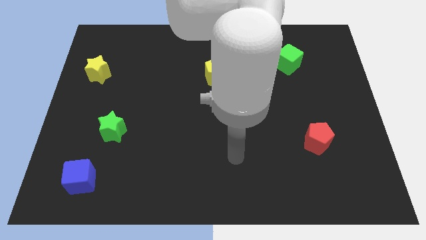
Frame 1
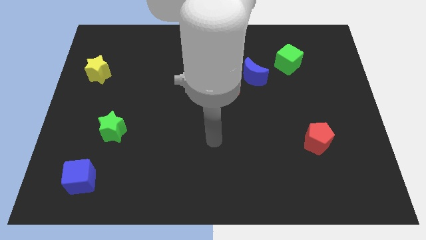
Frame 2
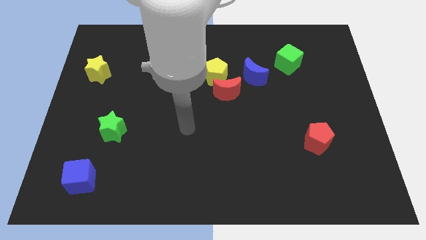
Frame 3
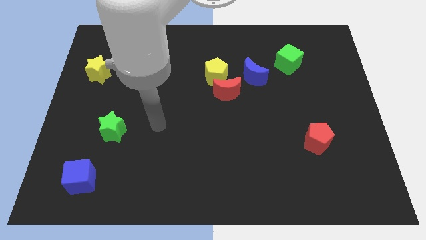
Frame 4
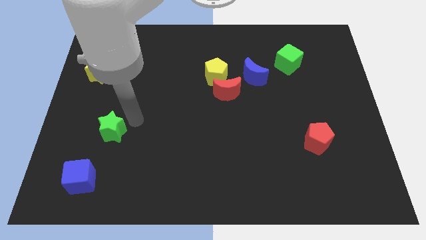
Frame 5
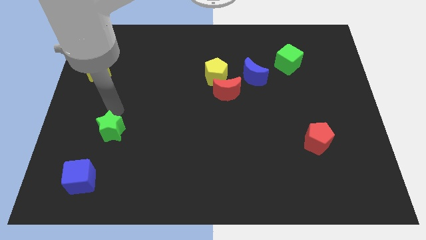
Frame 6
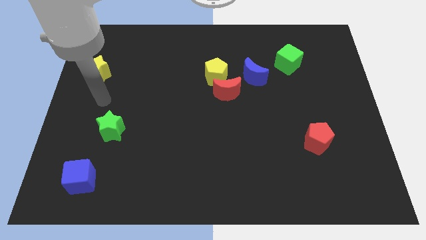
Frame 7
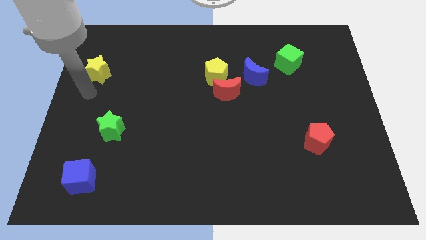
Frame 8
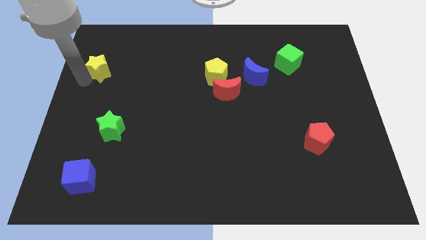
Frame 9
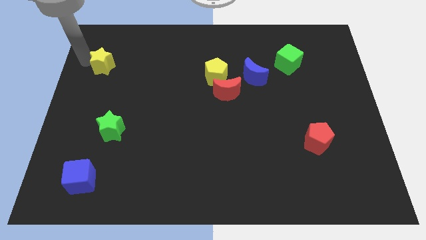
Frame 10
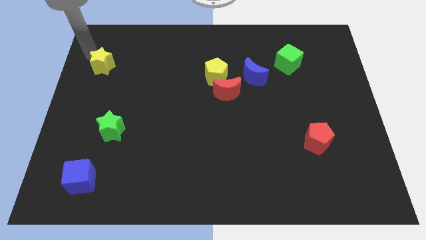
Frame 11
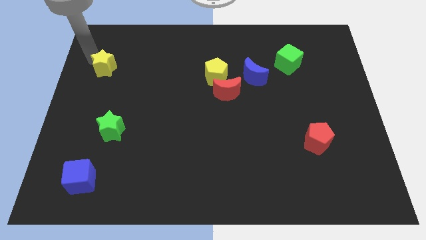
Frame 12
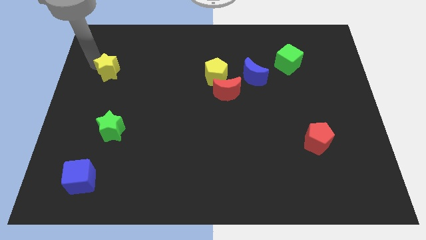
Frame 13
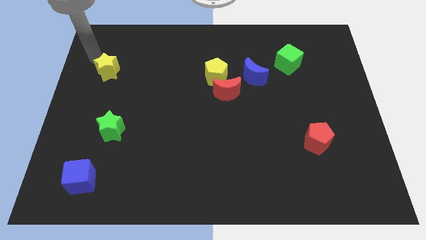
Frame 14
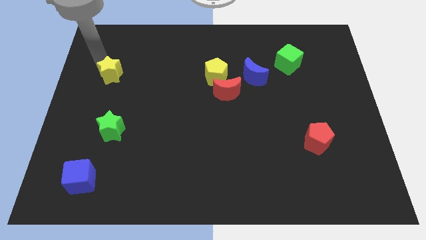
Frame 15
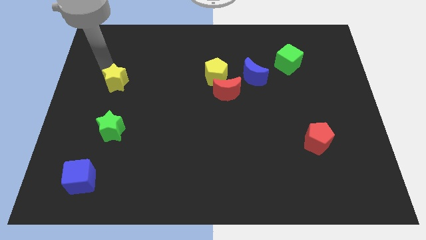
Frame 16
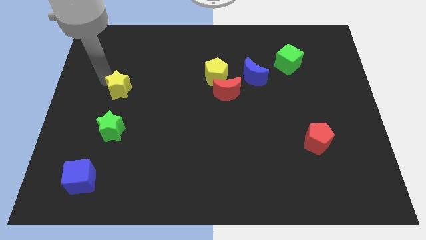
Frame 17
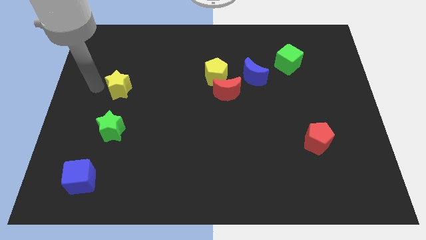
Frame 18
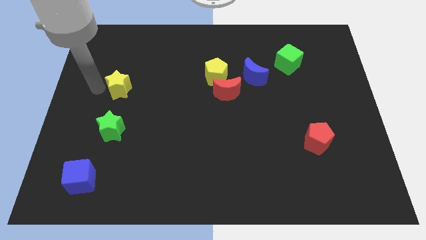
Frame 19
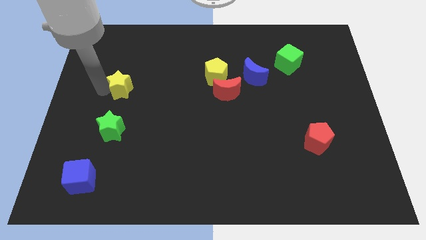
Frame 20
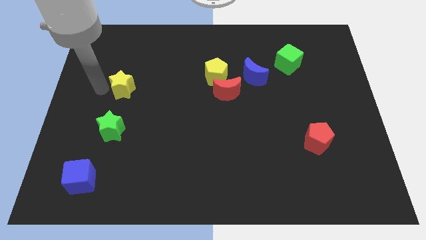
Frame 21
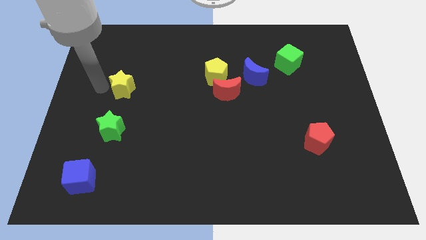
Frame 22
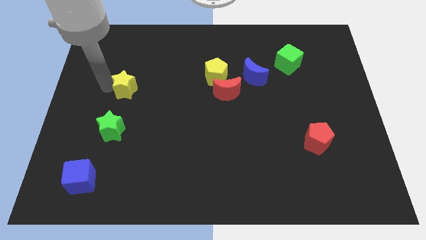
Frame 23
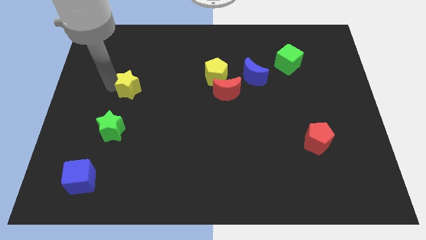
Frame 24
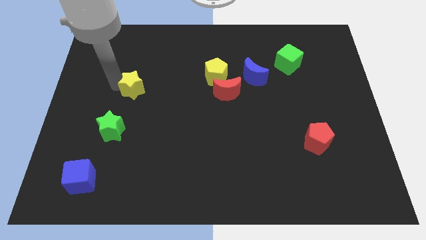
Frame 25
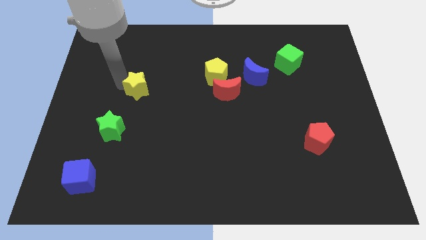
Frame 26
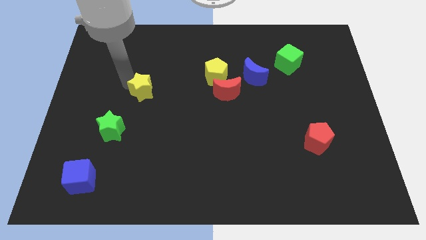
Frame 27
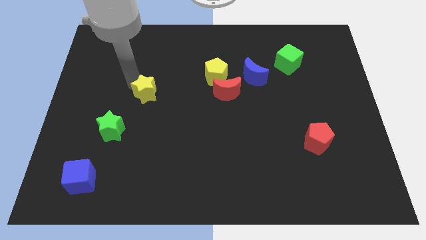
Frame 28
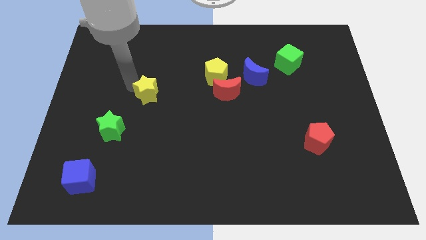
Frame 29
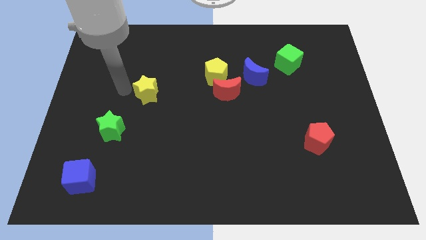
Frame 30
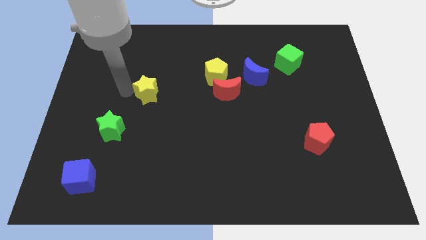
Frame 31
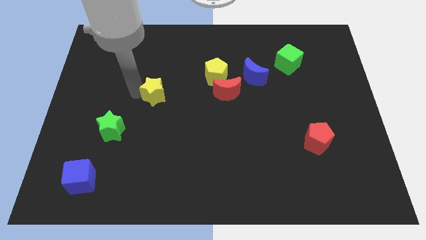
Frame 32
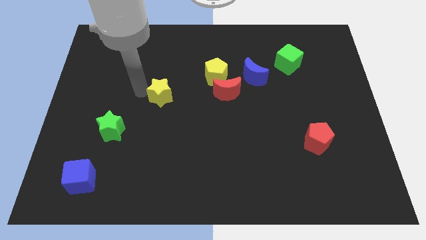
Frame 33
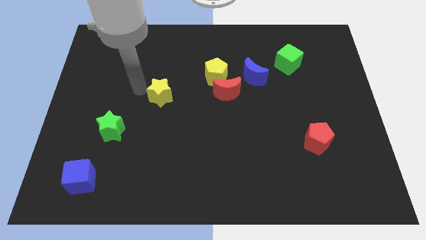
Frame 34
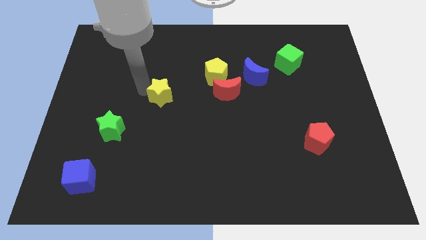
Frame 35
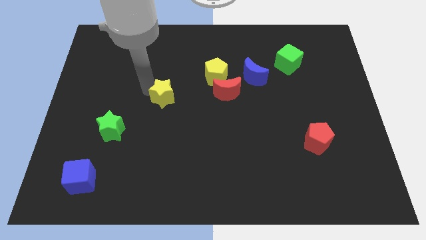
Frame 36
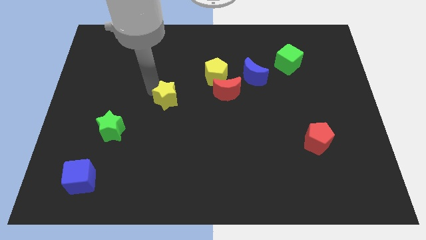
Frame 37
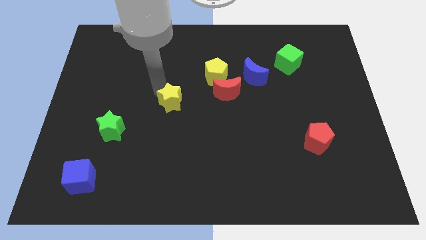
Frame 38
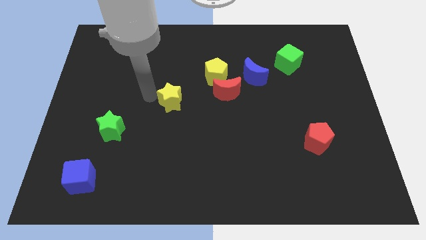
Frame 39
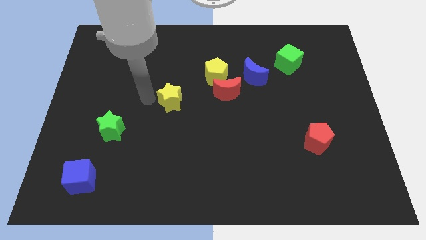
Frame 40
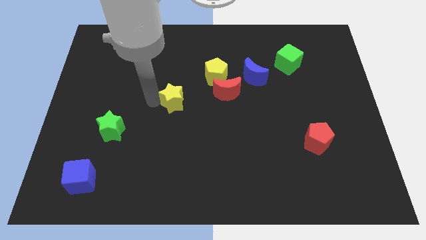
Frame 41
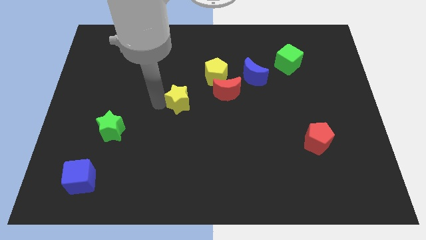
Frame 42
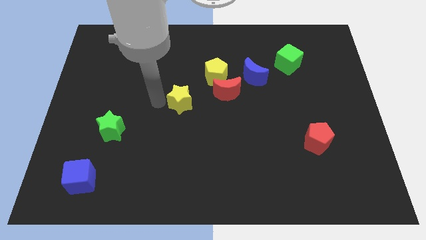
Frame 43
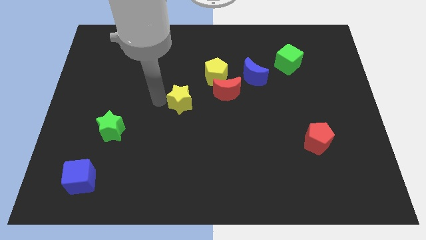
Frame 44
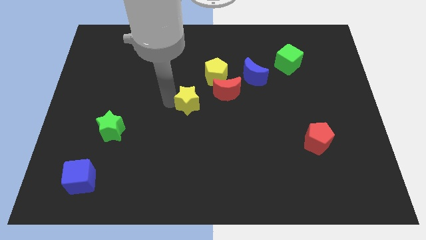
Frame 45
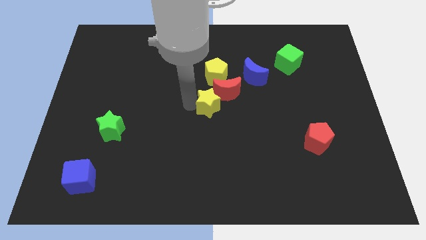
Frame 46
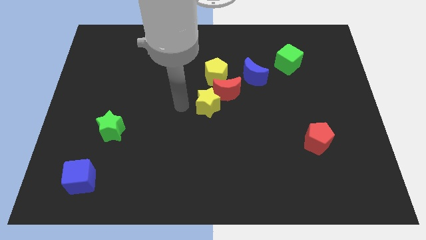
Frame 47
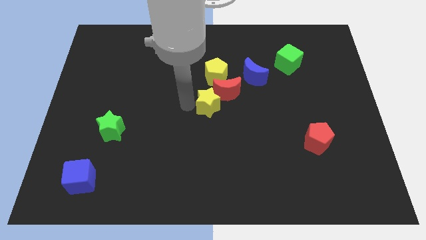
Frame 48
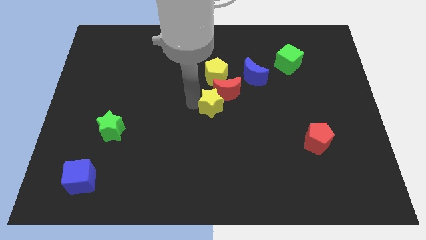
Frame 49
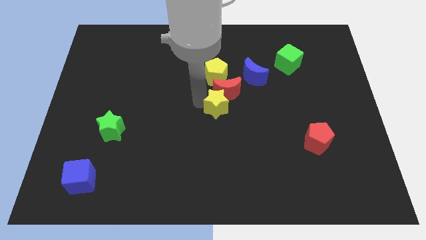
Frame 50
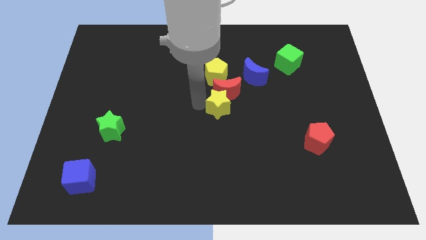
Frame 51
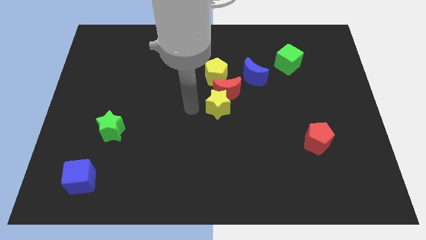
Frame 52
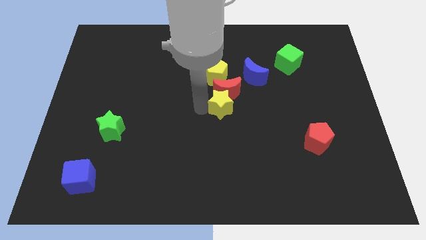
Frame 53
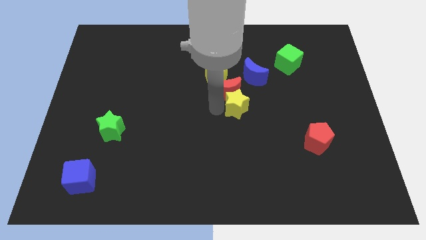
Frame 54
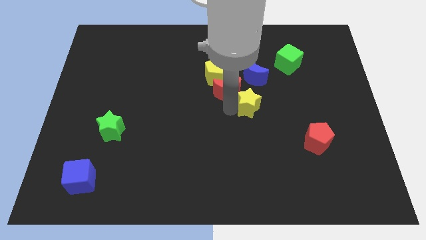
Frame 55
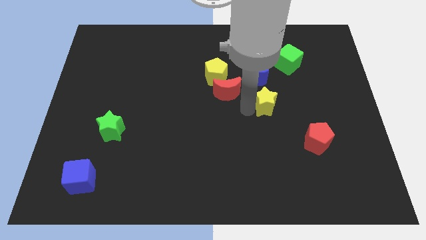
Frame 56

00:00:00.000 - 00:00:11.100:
move the yellow star to the bottom right of the blue moon

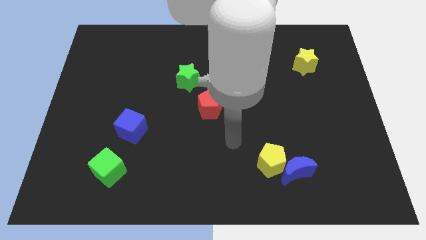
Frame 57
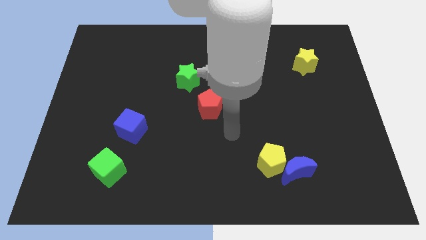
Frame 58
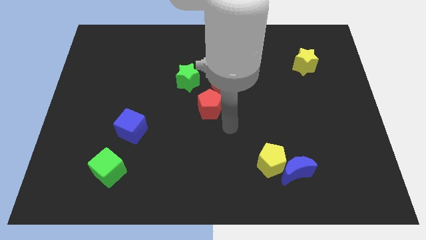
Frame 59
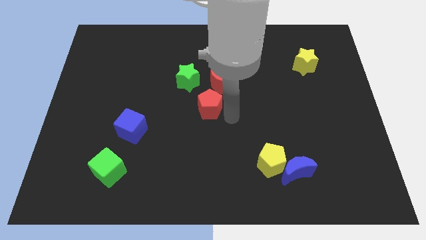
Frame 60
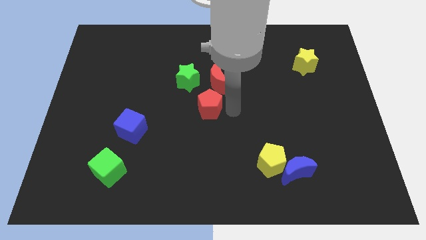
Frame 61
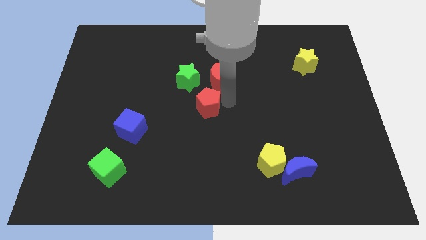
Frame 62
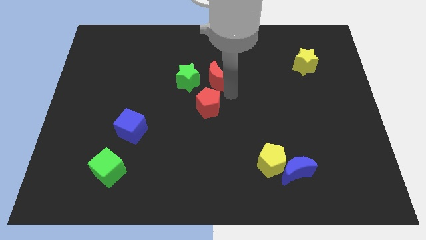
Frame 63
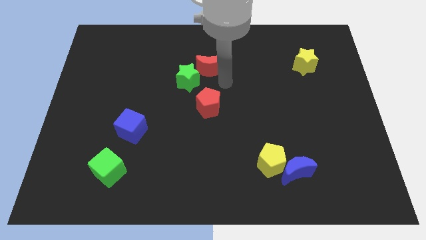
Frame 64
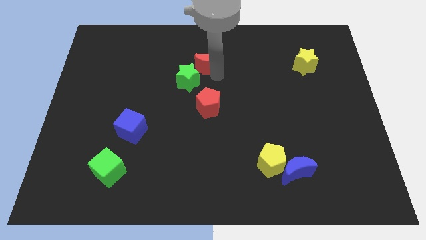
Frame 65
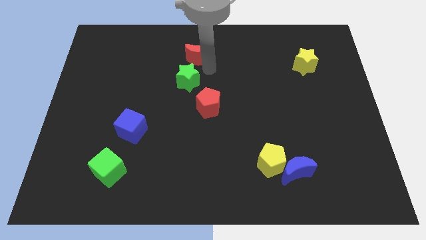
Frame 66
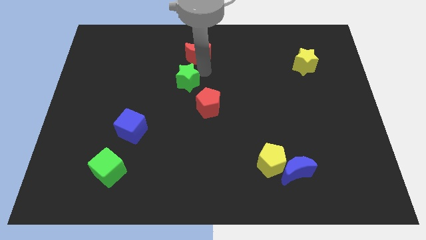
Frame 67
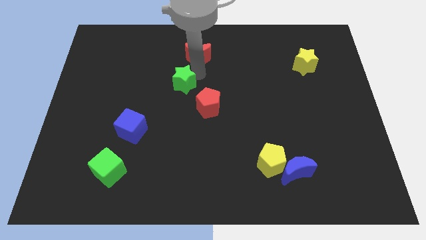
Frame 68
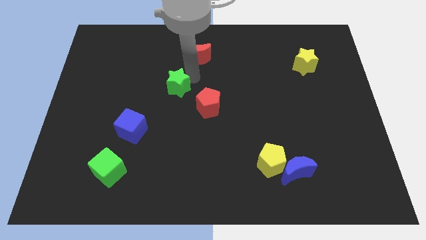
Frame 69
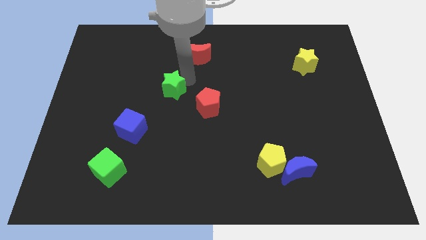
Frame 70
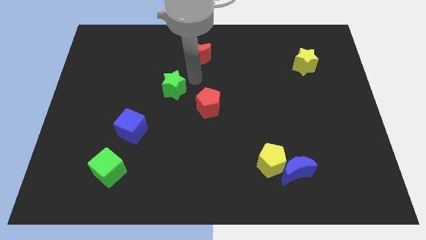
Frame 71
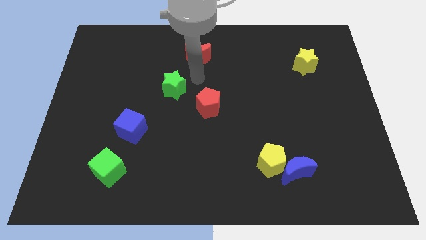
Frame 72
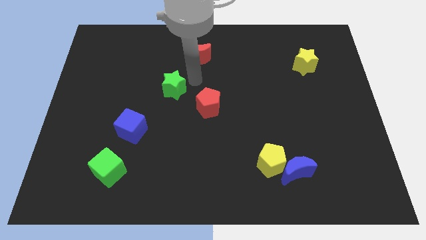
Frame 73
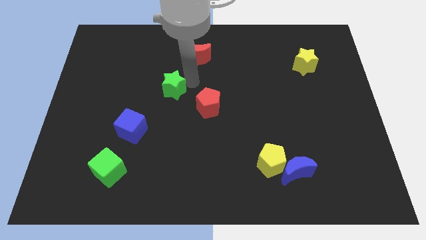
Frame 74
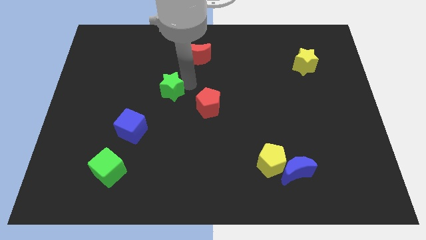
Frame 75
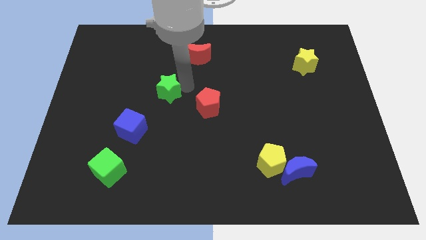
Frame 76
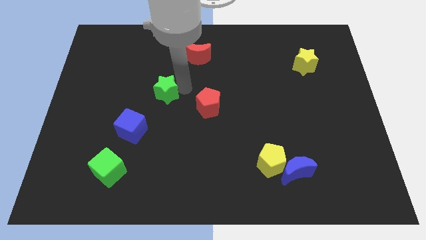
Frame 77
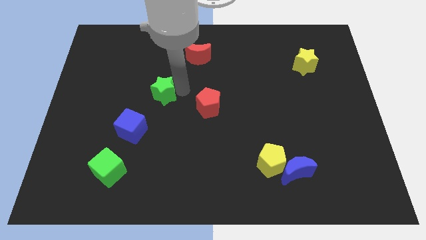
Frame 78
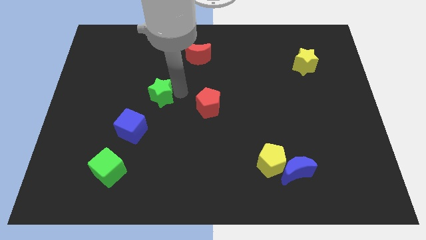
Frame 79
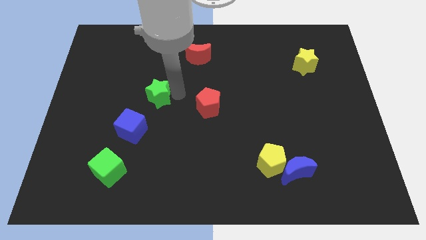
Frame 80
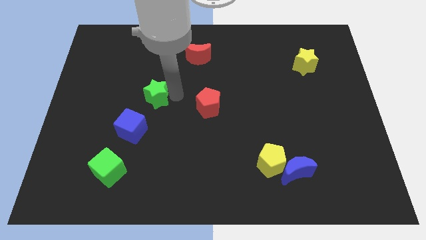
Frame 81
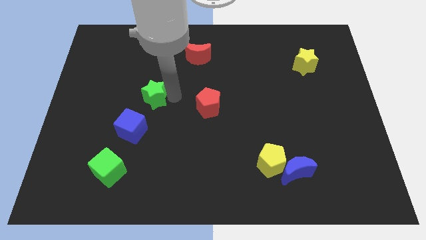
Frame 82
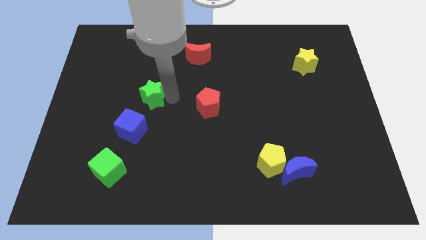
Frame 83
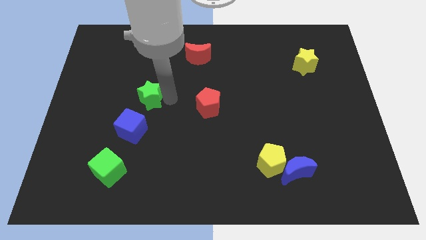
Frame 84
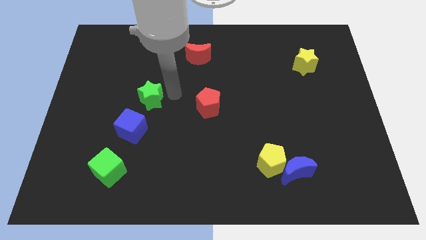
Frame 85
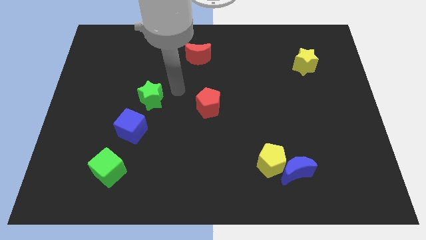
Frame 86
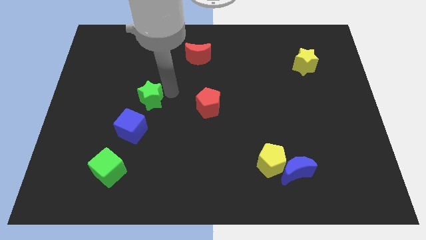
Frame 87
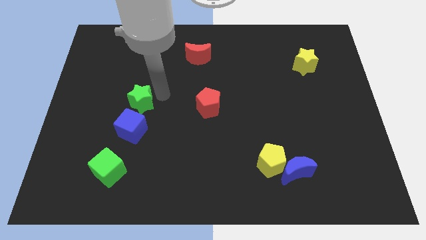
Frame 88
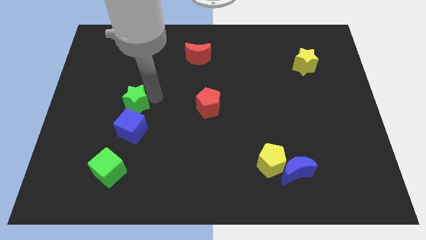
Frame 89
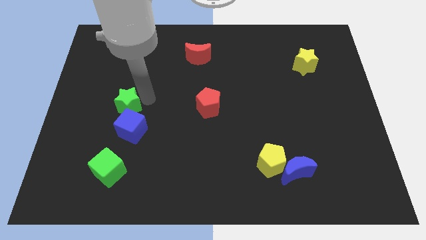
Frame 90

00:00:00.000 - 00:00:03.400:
slide the green star to the top left side of the blue cube
